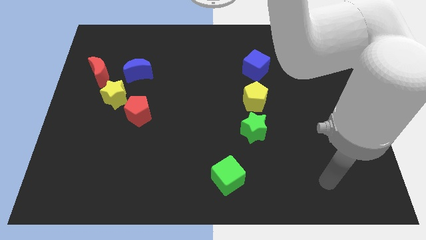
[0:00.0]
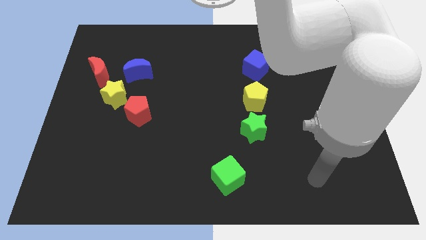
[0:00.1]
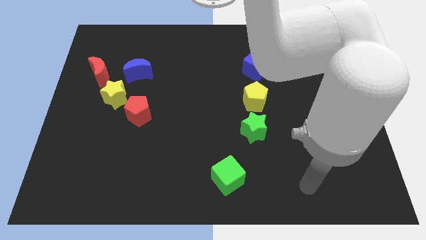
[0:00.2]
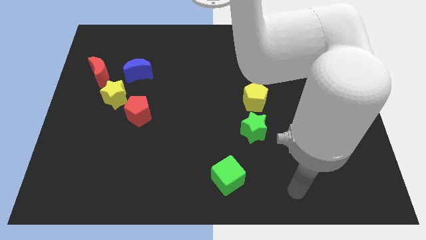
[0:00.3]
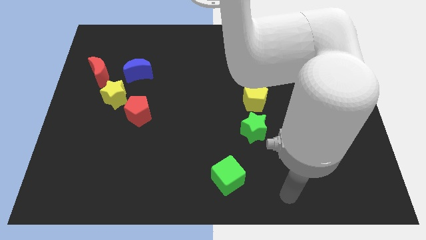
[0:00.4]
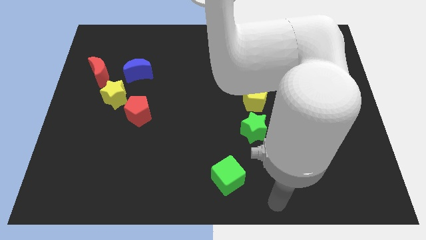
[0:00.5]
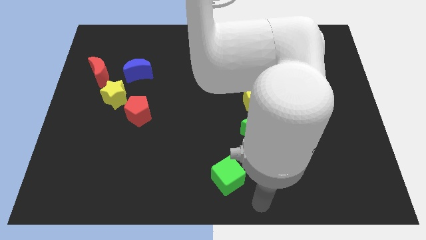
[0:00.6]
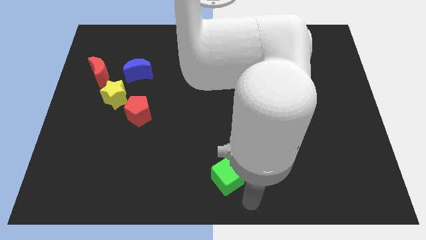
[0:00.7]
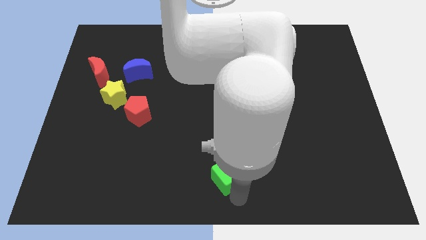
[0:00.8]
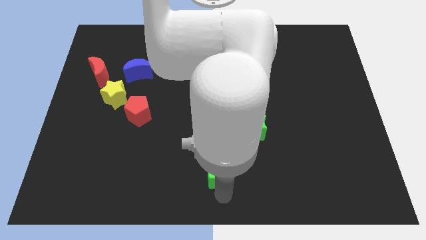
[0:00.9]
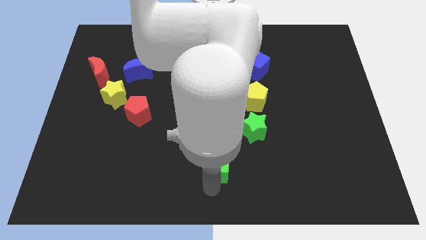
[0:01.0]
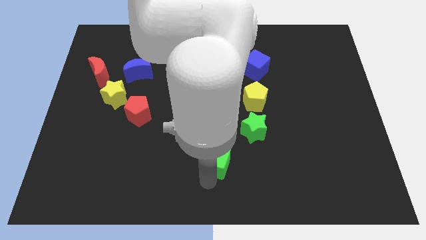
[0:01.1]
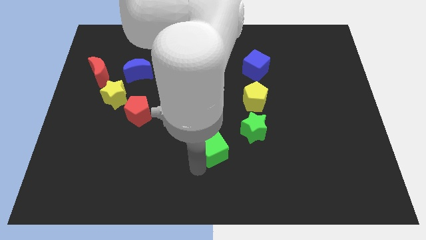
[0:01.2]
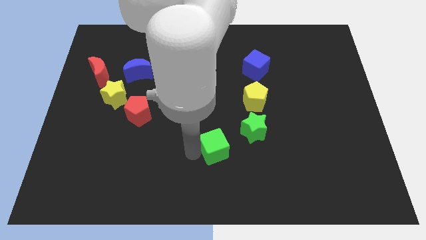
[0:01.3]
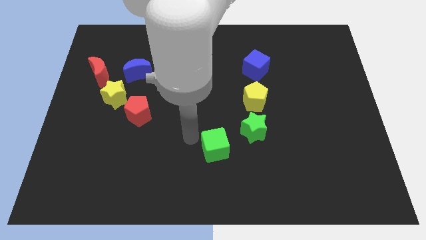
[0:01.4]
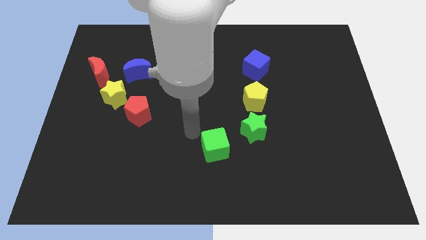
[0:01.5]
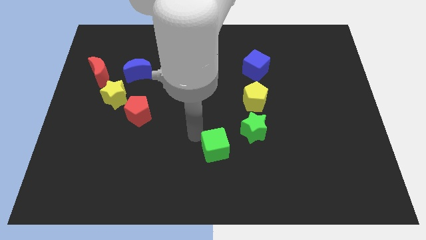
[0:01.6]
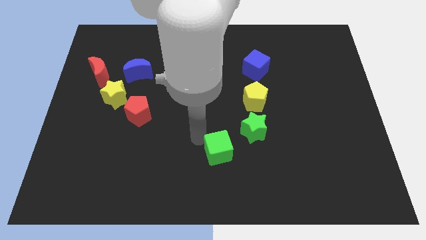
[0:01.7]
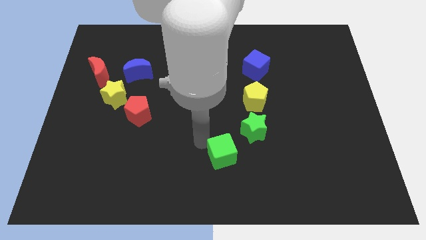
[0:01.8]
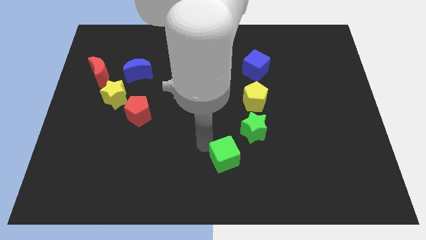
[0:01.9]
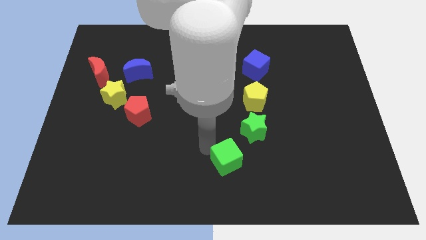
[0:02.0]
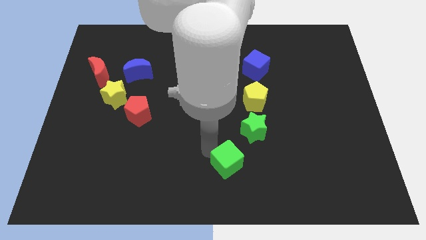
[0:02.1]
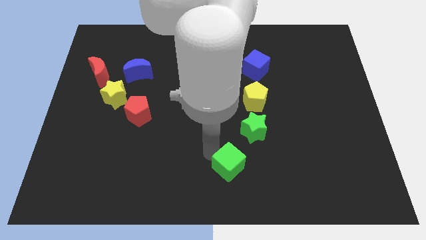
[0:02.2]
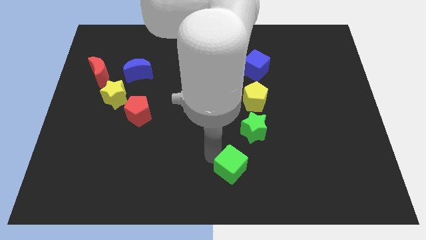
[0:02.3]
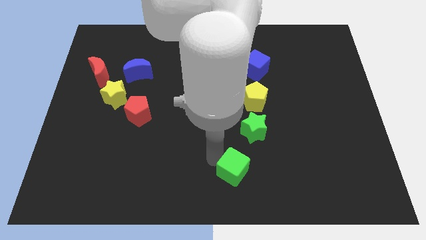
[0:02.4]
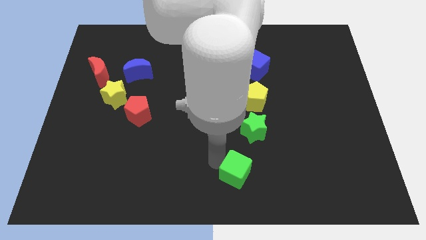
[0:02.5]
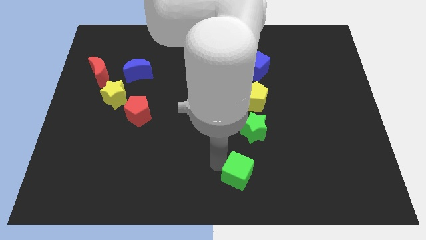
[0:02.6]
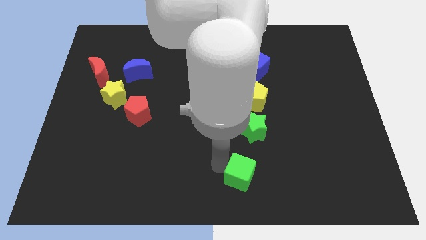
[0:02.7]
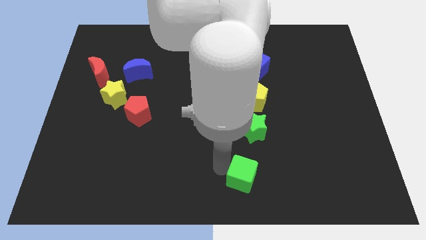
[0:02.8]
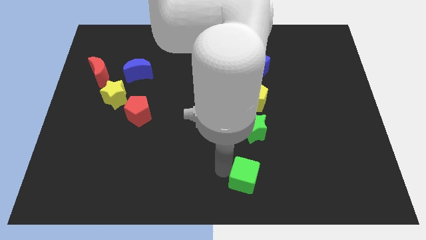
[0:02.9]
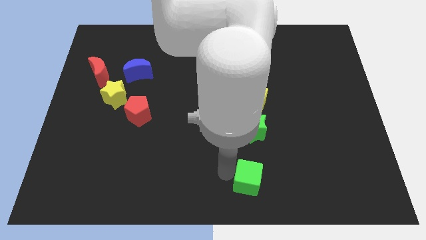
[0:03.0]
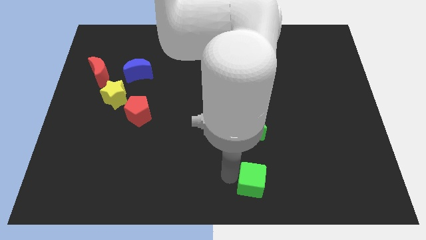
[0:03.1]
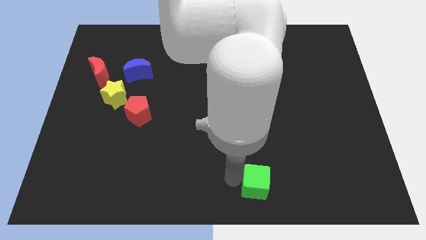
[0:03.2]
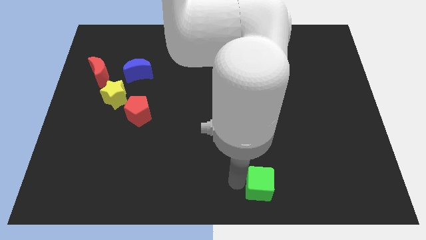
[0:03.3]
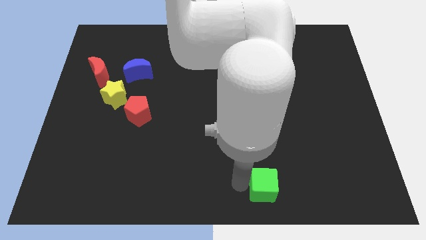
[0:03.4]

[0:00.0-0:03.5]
slide the green cube to the right slightly

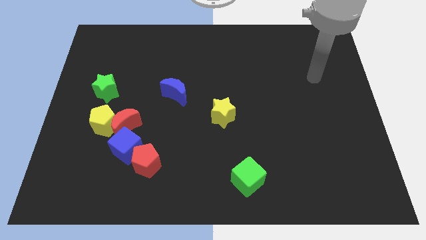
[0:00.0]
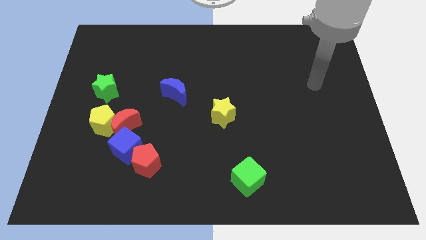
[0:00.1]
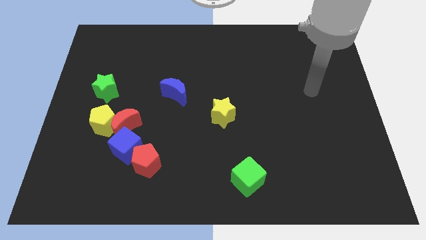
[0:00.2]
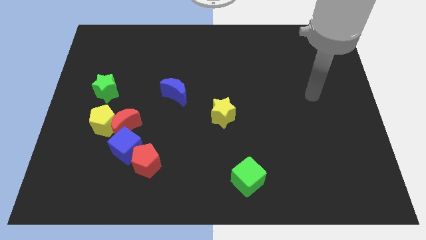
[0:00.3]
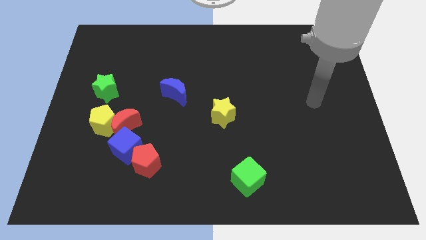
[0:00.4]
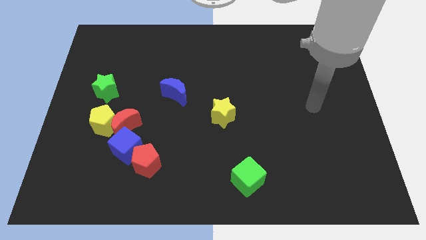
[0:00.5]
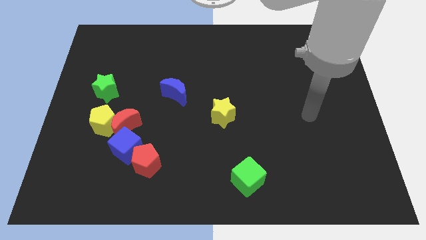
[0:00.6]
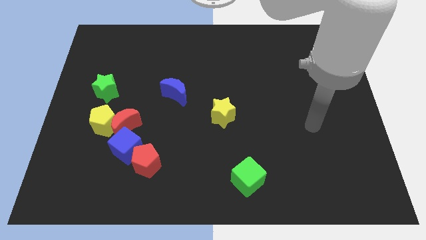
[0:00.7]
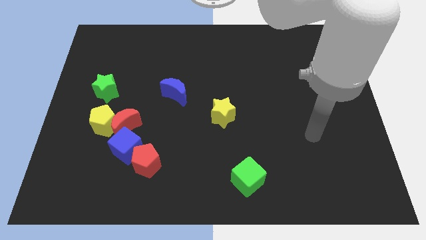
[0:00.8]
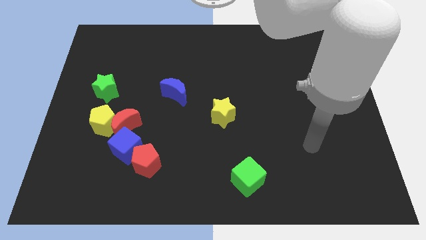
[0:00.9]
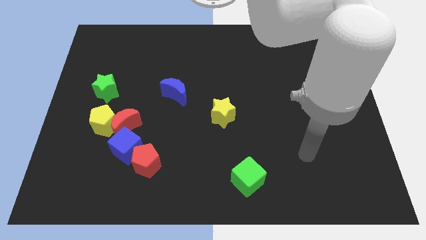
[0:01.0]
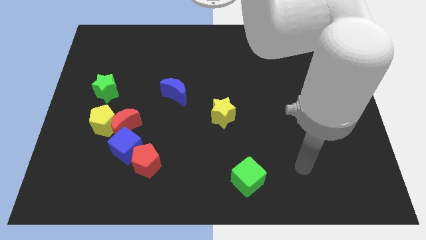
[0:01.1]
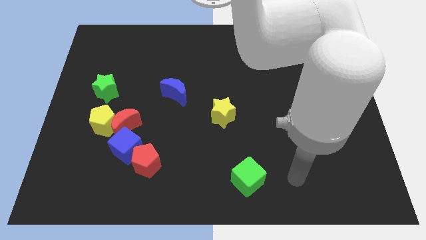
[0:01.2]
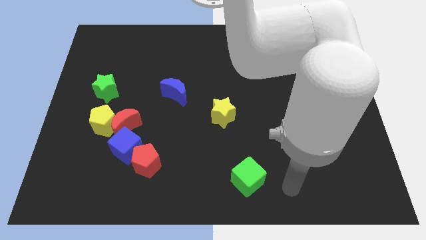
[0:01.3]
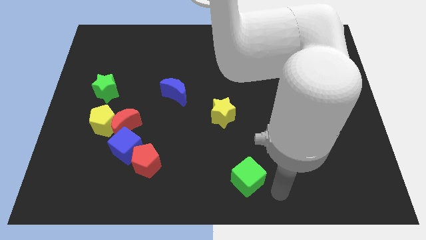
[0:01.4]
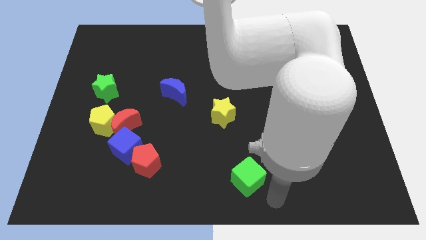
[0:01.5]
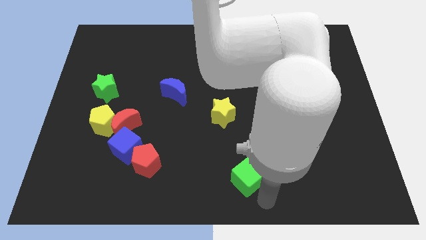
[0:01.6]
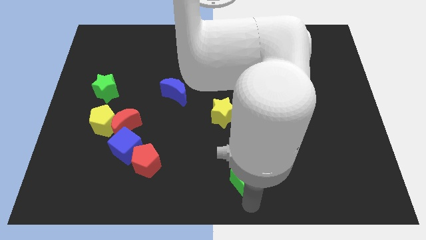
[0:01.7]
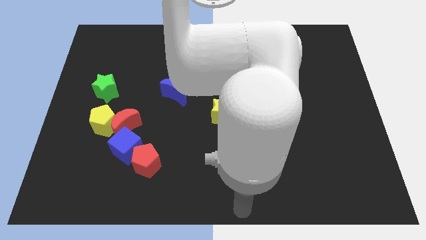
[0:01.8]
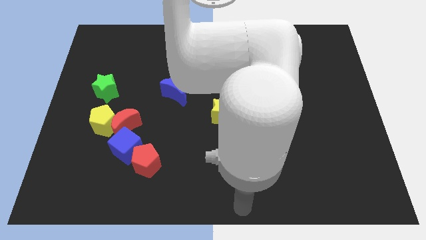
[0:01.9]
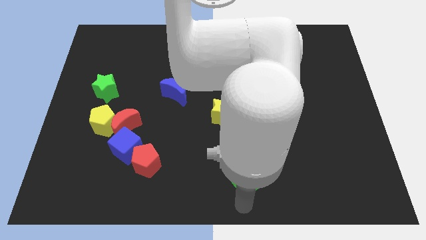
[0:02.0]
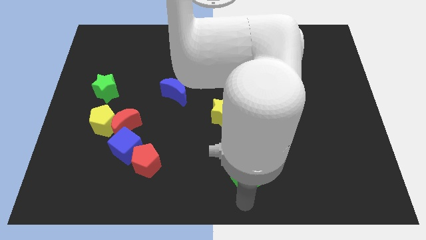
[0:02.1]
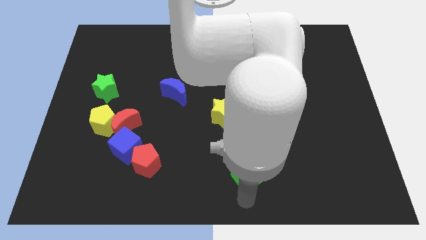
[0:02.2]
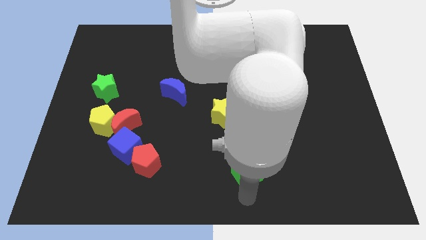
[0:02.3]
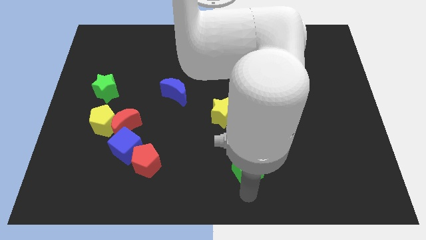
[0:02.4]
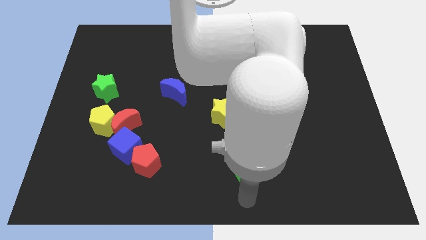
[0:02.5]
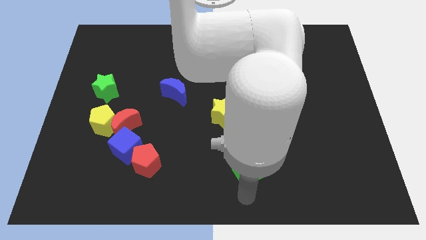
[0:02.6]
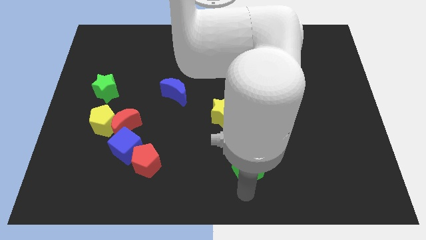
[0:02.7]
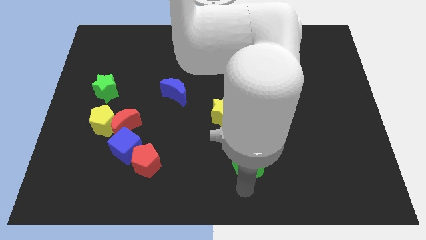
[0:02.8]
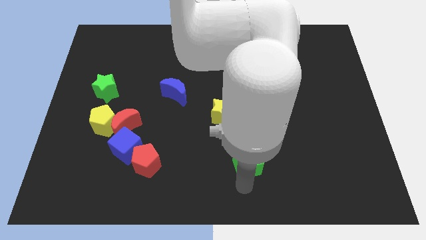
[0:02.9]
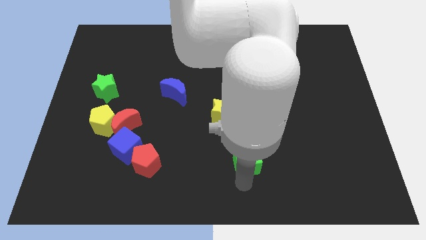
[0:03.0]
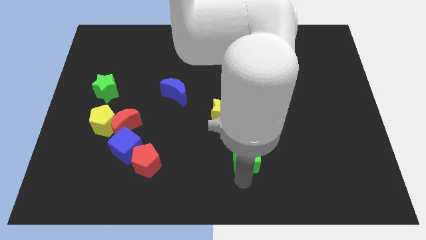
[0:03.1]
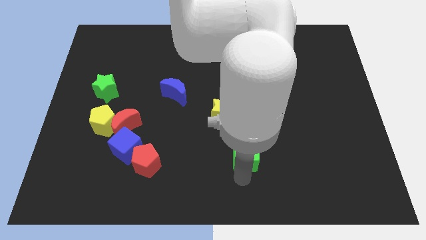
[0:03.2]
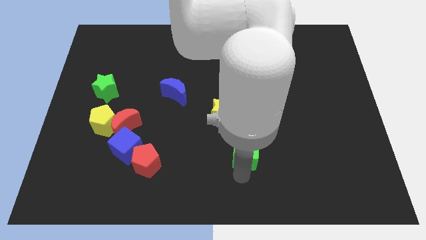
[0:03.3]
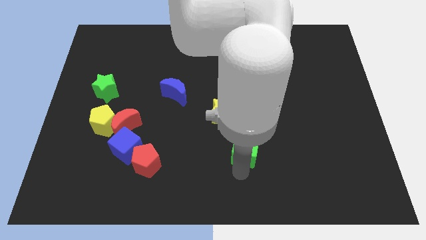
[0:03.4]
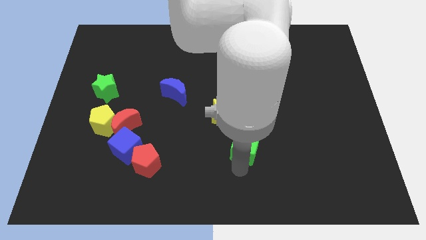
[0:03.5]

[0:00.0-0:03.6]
move the green cube a little upwards

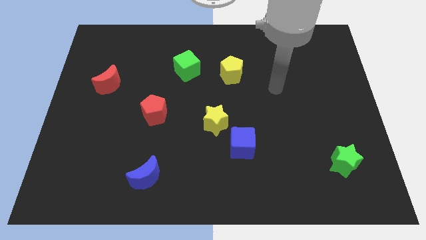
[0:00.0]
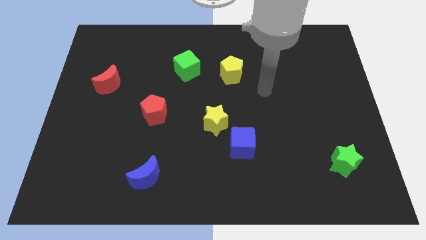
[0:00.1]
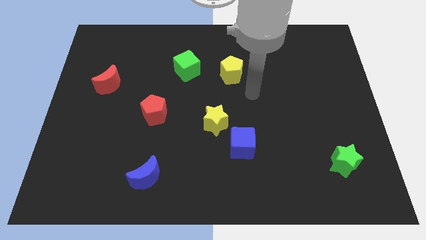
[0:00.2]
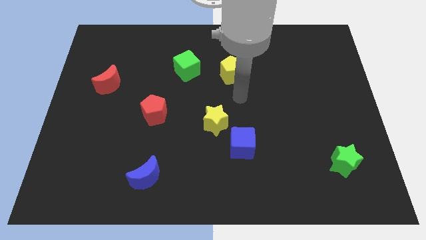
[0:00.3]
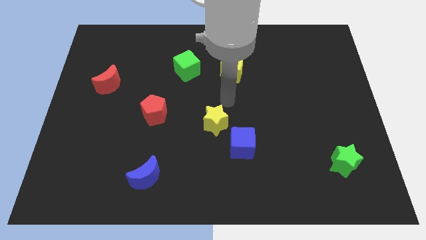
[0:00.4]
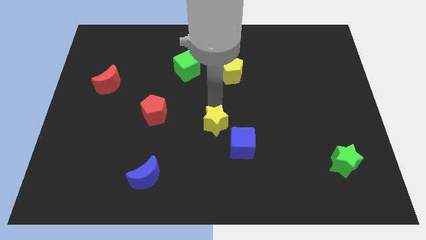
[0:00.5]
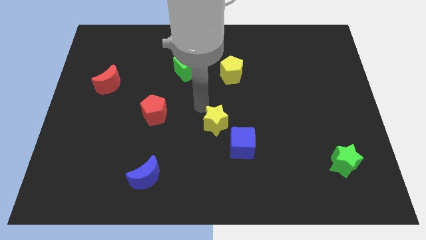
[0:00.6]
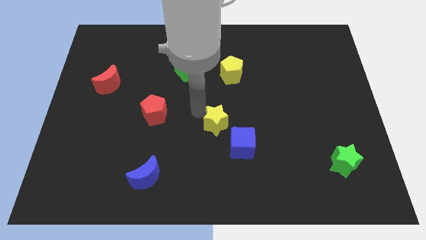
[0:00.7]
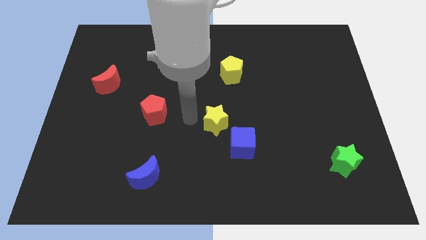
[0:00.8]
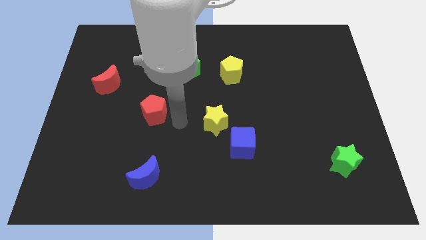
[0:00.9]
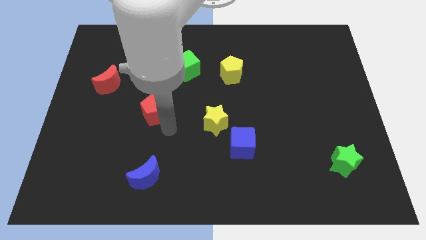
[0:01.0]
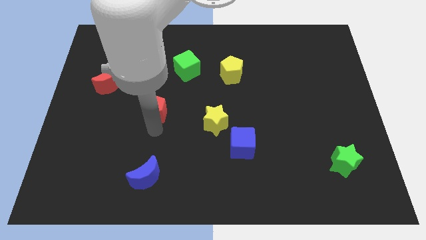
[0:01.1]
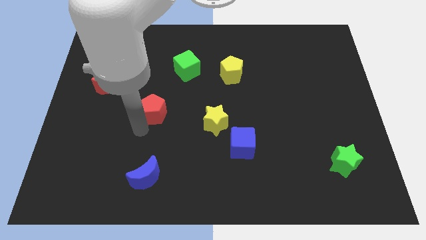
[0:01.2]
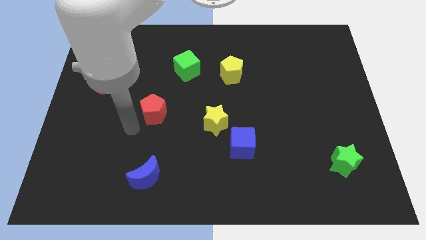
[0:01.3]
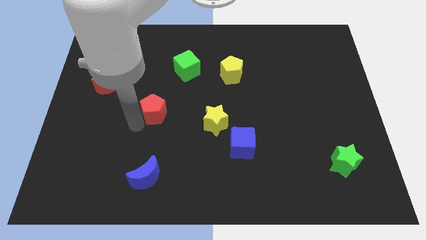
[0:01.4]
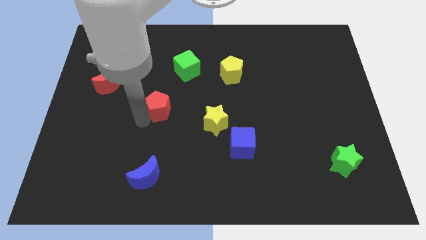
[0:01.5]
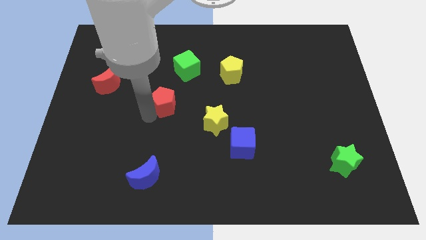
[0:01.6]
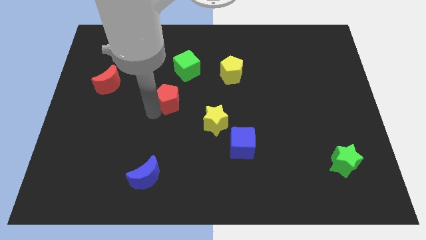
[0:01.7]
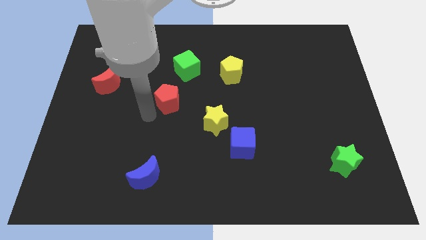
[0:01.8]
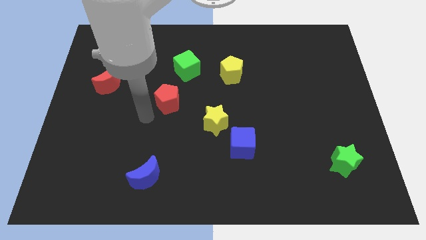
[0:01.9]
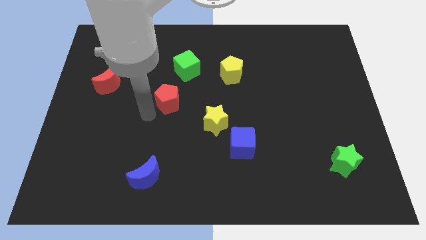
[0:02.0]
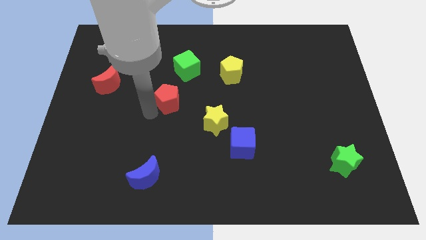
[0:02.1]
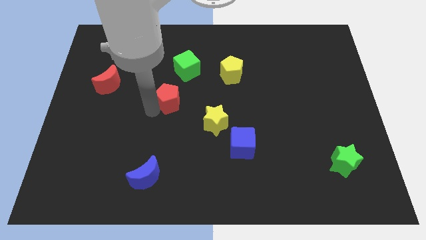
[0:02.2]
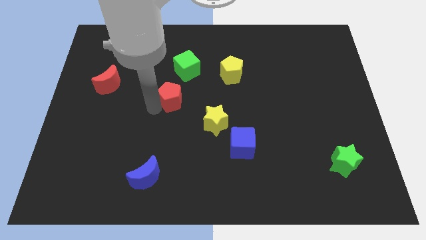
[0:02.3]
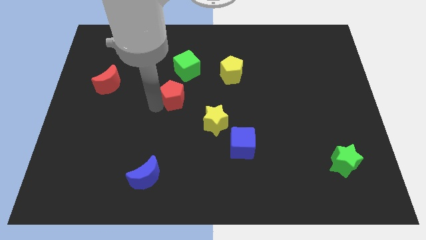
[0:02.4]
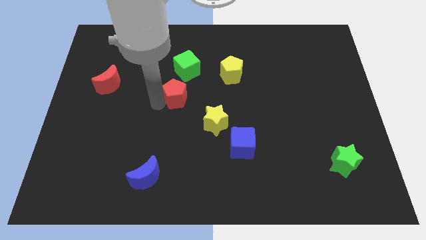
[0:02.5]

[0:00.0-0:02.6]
push the red pentagon up and right a little
